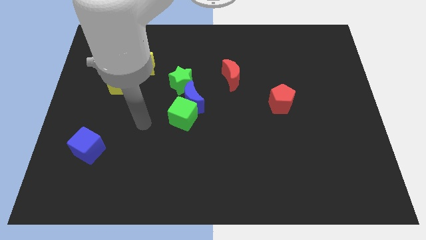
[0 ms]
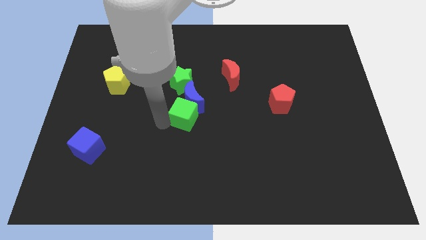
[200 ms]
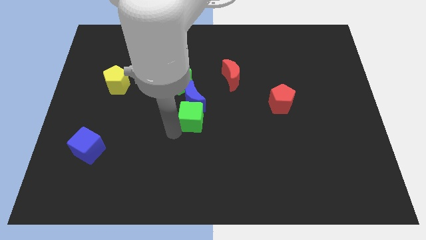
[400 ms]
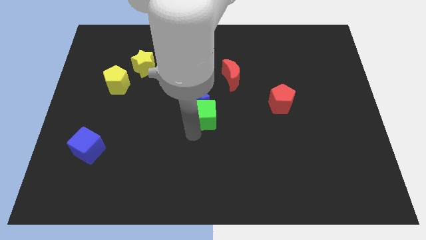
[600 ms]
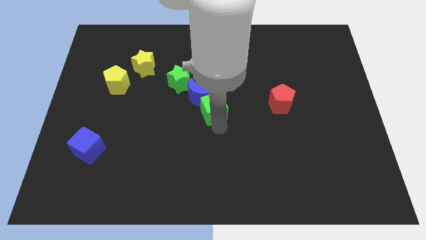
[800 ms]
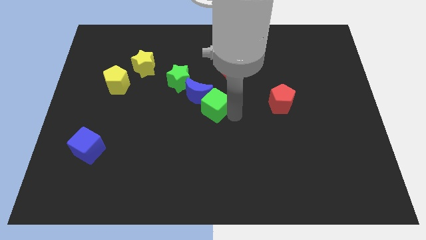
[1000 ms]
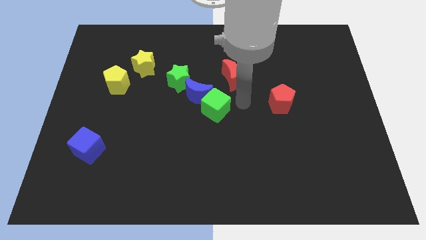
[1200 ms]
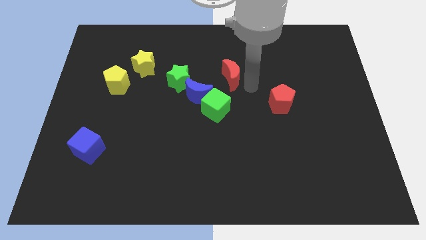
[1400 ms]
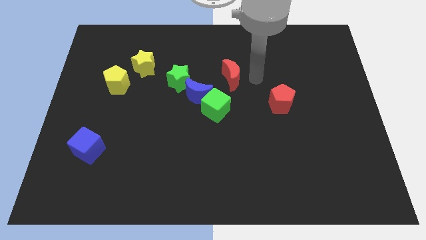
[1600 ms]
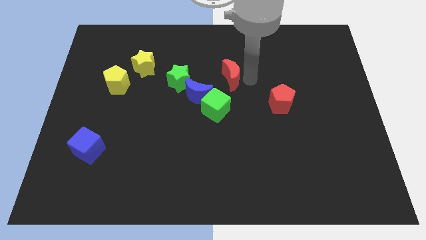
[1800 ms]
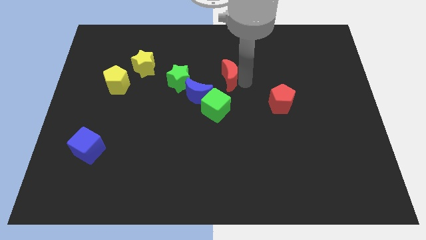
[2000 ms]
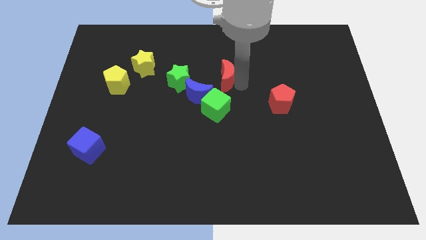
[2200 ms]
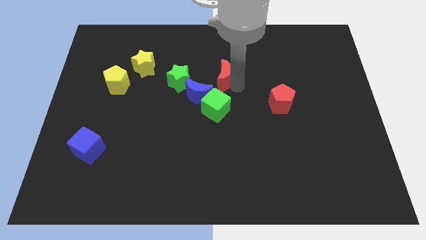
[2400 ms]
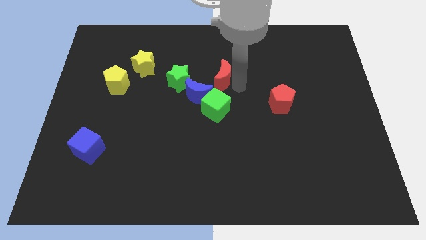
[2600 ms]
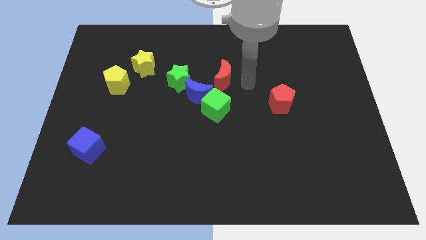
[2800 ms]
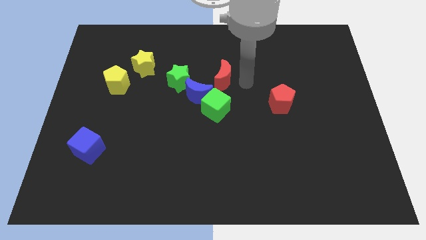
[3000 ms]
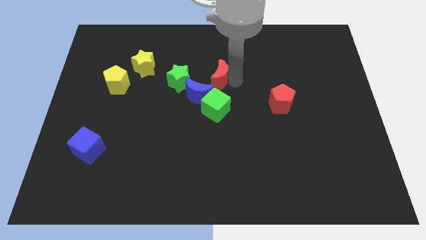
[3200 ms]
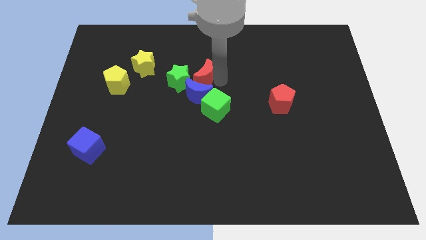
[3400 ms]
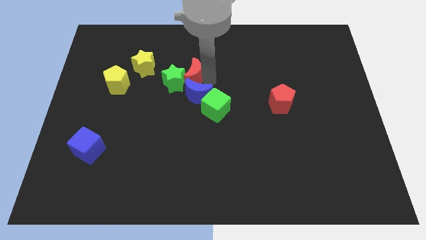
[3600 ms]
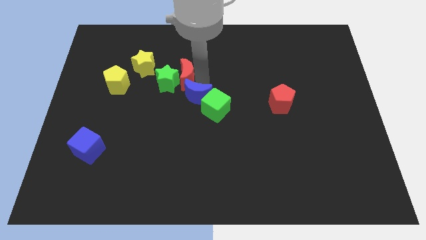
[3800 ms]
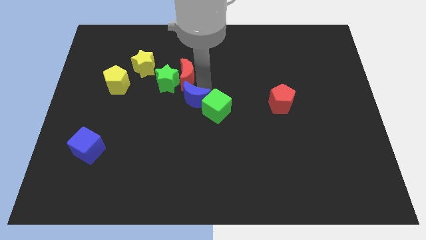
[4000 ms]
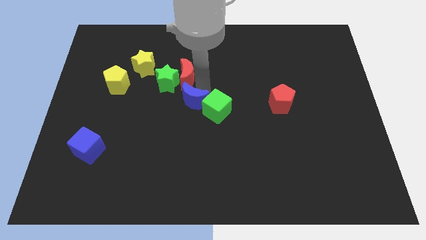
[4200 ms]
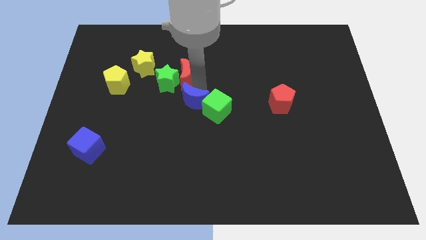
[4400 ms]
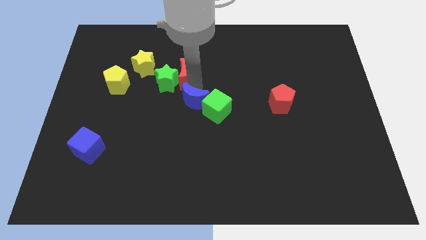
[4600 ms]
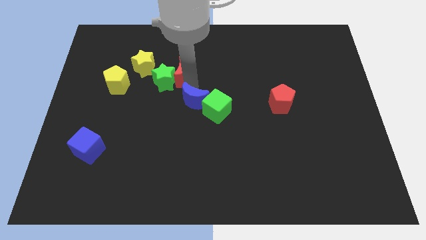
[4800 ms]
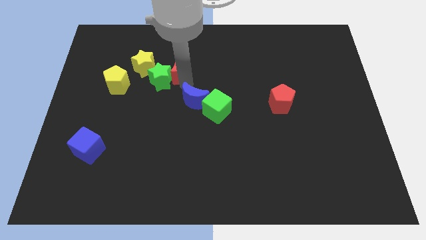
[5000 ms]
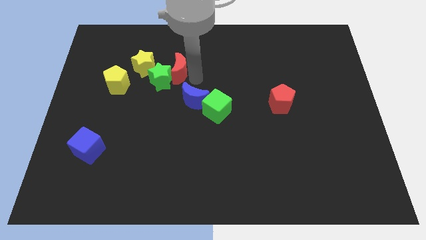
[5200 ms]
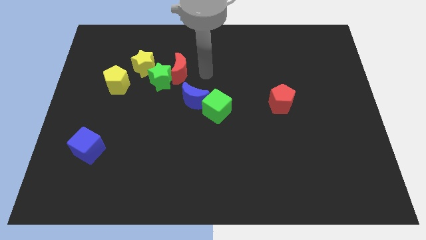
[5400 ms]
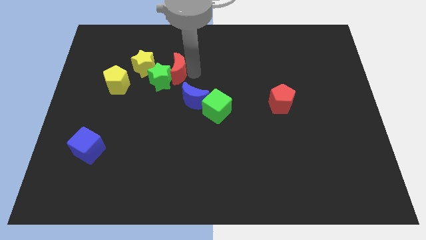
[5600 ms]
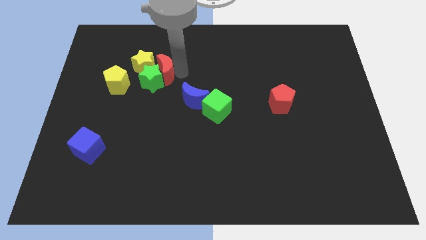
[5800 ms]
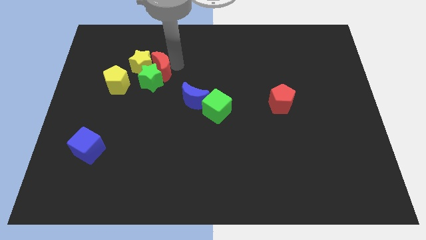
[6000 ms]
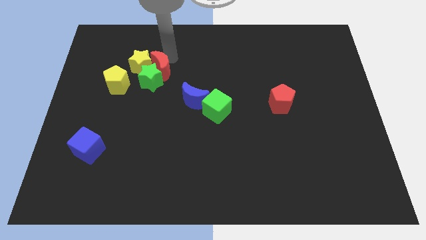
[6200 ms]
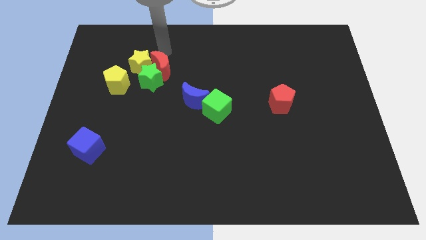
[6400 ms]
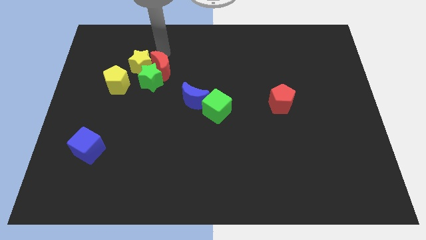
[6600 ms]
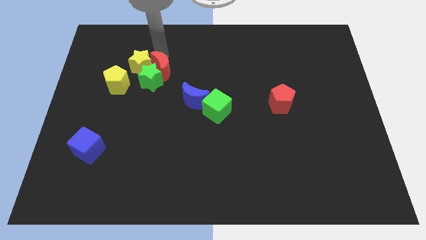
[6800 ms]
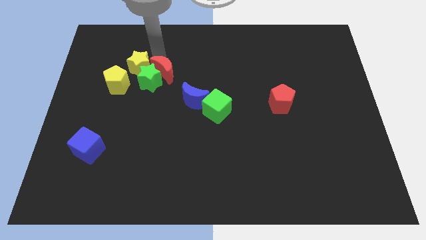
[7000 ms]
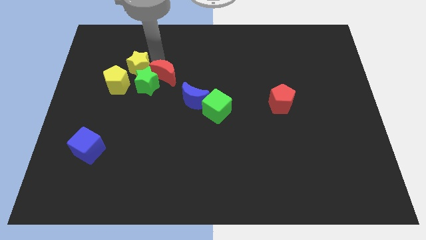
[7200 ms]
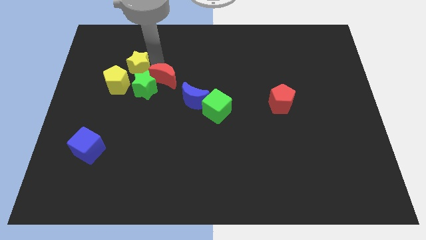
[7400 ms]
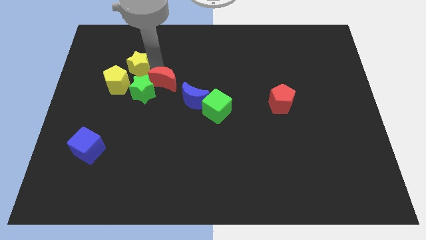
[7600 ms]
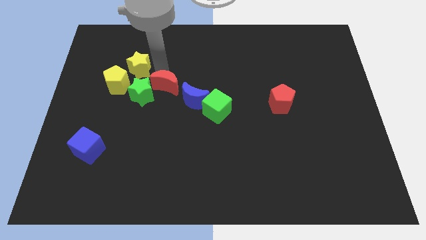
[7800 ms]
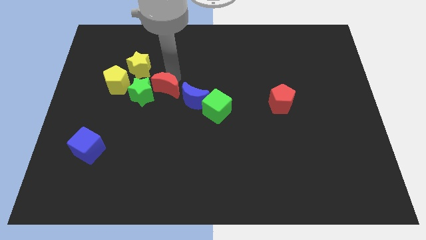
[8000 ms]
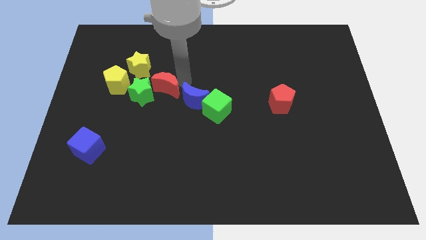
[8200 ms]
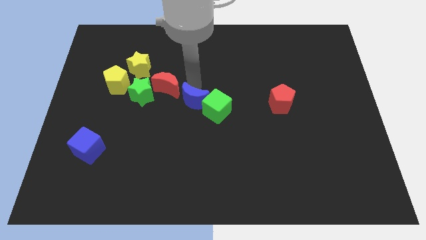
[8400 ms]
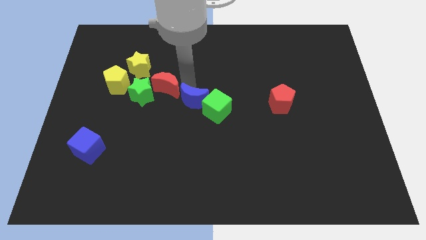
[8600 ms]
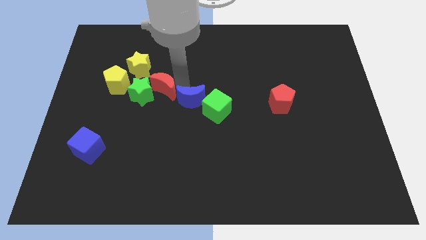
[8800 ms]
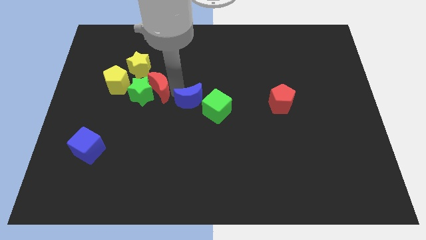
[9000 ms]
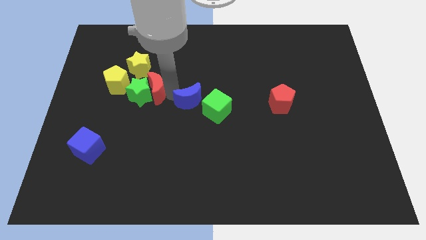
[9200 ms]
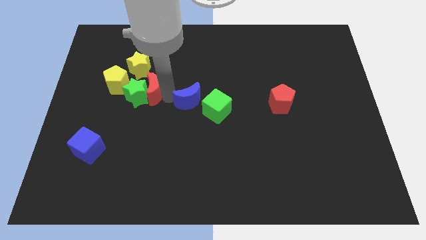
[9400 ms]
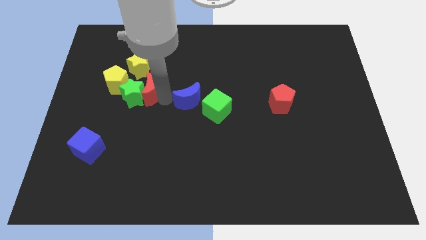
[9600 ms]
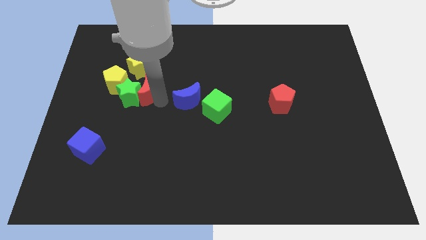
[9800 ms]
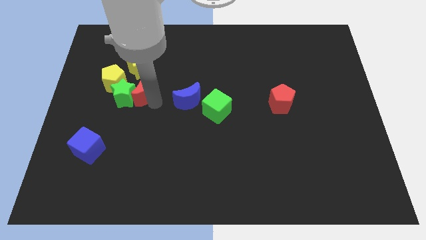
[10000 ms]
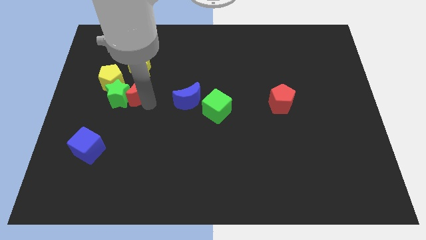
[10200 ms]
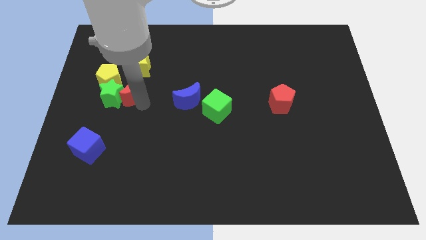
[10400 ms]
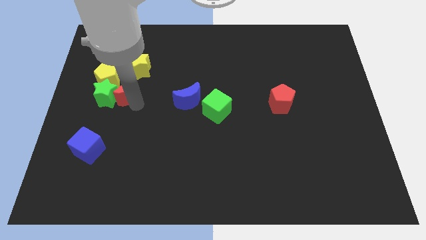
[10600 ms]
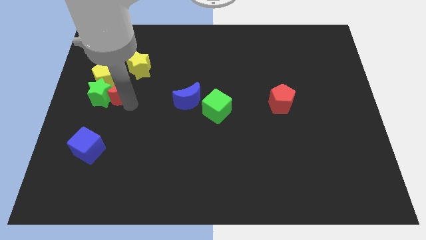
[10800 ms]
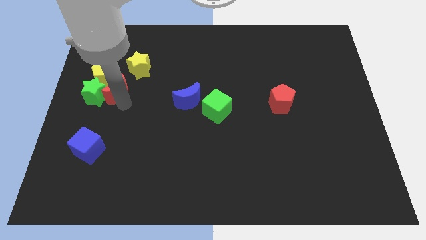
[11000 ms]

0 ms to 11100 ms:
slide the red moon next to the yellow pentagon

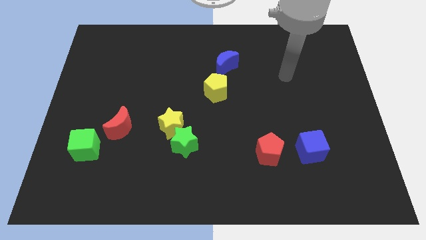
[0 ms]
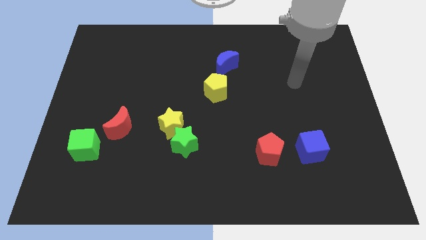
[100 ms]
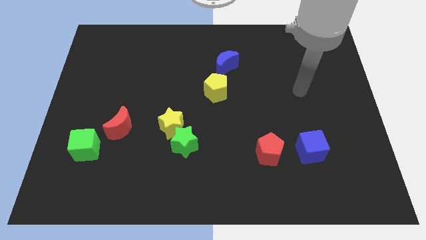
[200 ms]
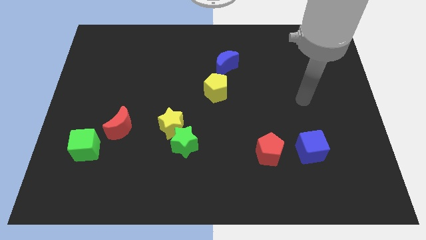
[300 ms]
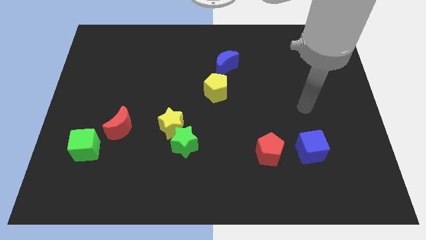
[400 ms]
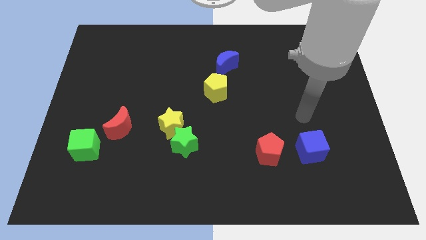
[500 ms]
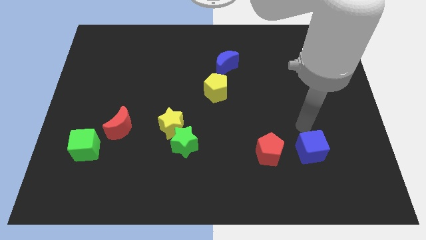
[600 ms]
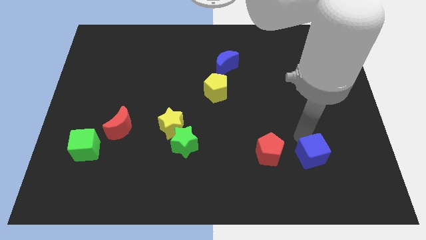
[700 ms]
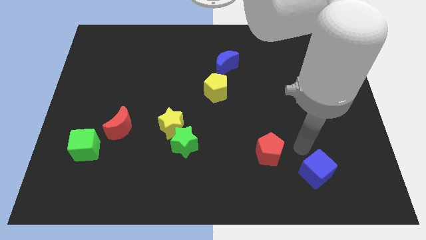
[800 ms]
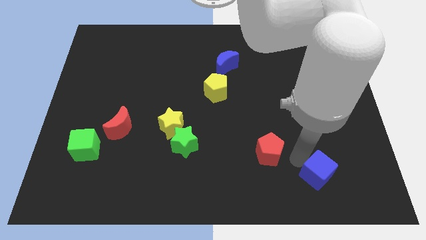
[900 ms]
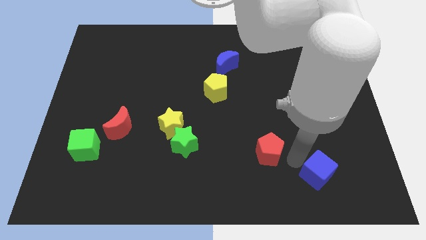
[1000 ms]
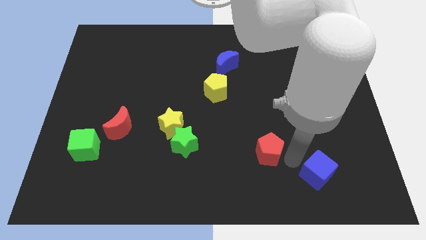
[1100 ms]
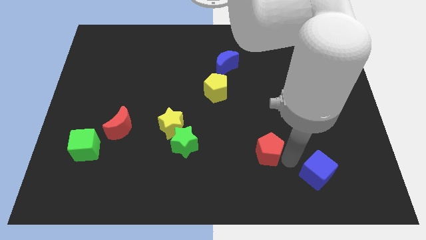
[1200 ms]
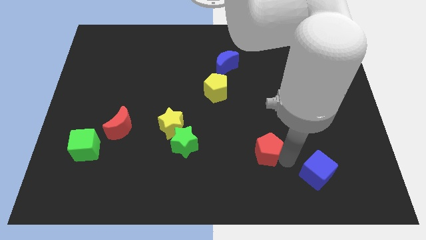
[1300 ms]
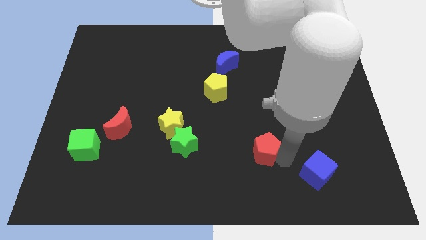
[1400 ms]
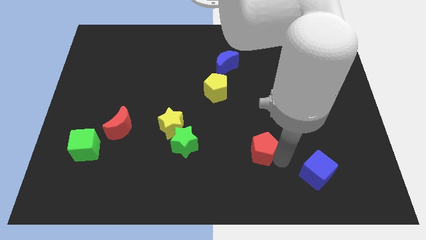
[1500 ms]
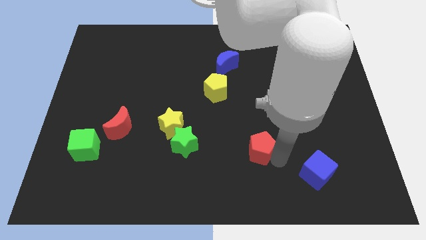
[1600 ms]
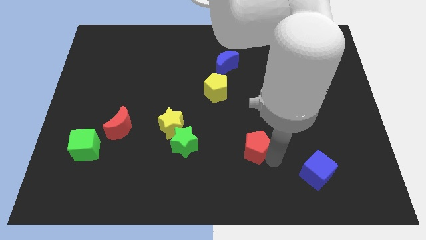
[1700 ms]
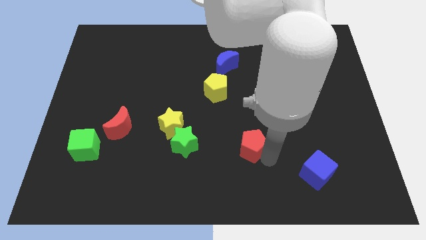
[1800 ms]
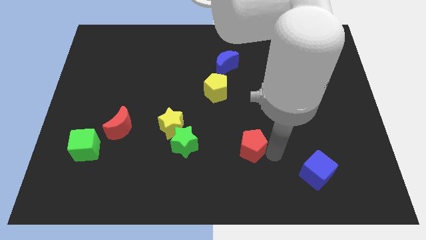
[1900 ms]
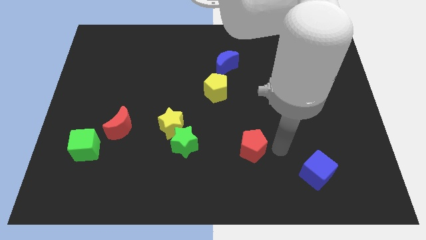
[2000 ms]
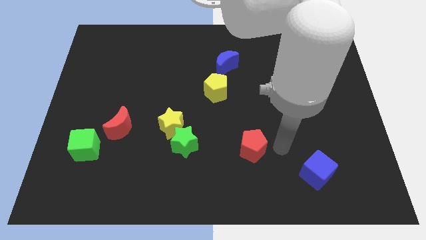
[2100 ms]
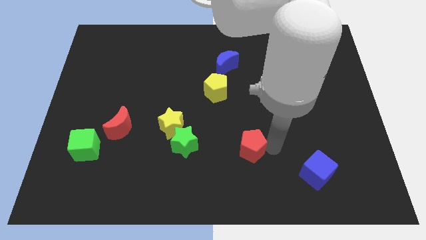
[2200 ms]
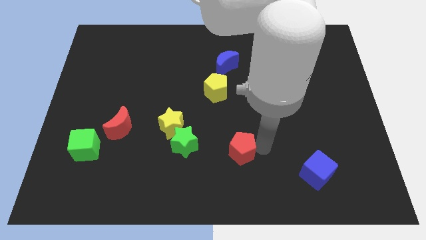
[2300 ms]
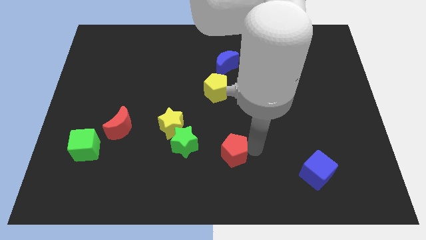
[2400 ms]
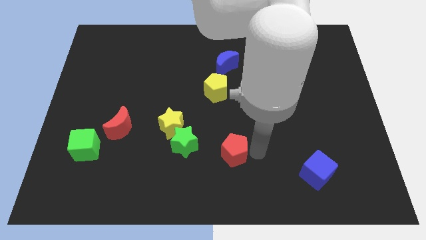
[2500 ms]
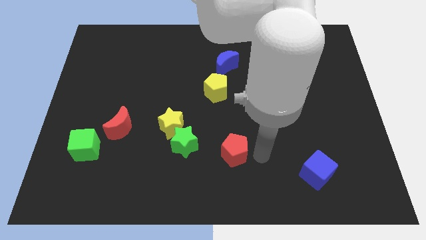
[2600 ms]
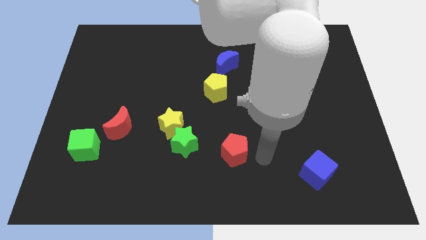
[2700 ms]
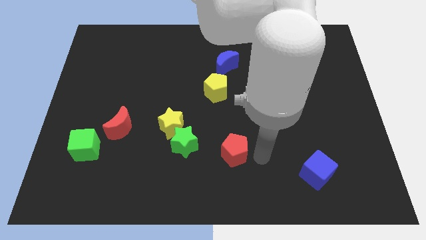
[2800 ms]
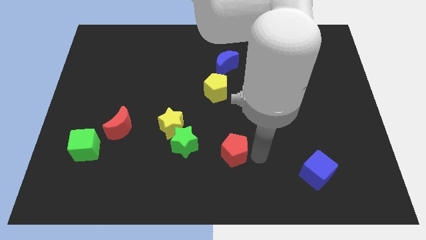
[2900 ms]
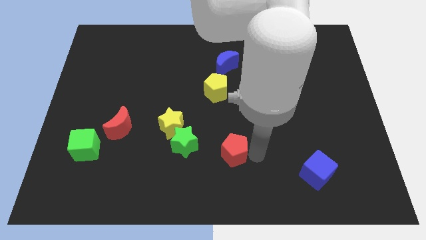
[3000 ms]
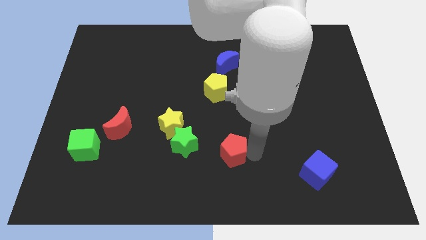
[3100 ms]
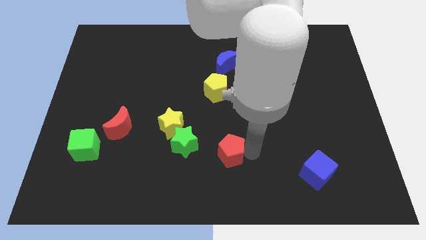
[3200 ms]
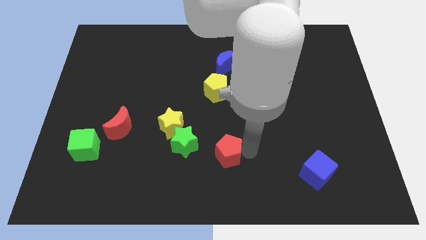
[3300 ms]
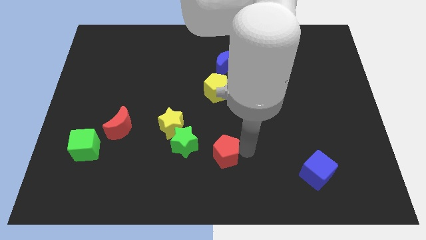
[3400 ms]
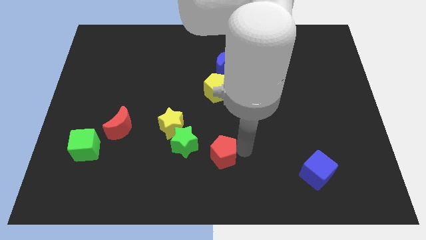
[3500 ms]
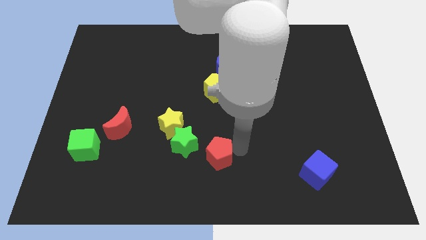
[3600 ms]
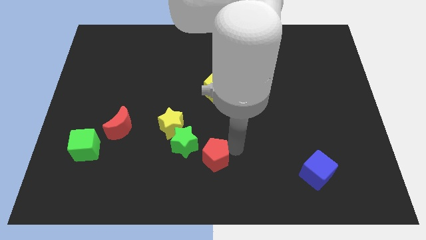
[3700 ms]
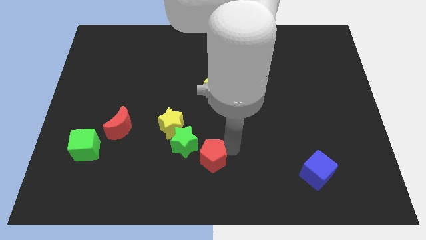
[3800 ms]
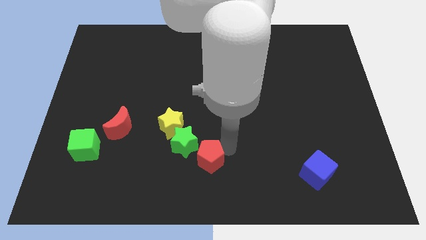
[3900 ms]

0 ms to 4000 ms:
slide the red pentagon to the green star
